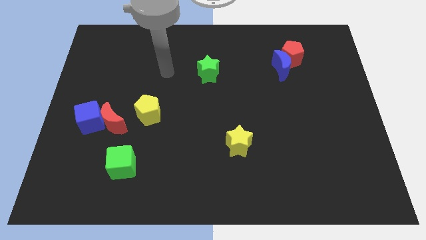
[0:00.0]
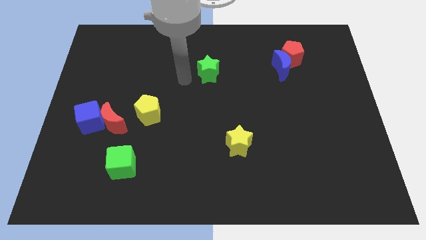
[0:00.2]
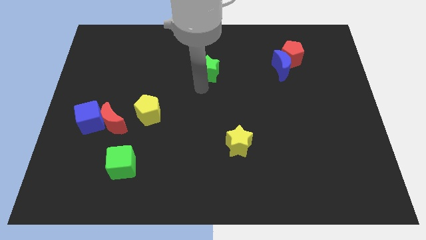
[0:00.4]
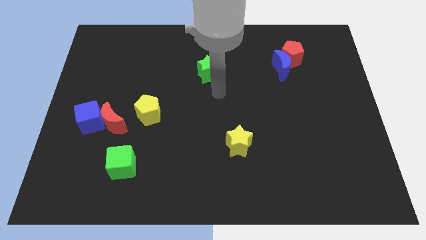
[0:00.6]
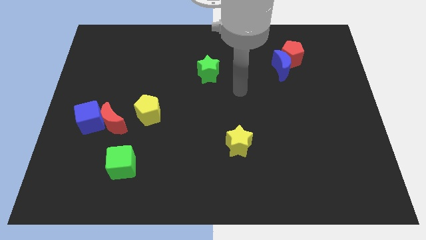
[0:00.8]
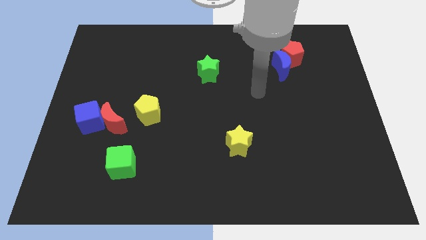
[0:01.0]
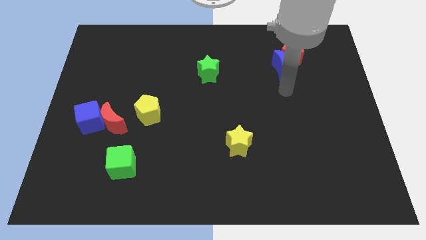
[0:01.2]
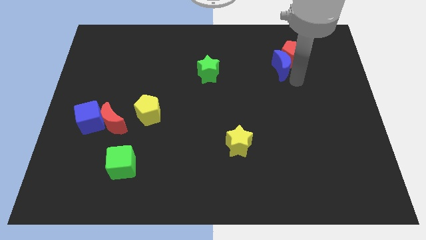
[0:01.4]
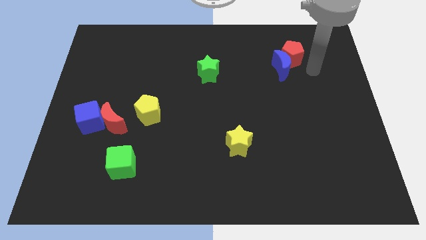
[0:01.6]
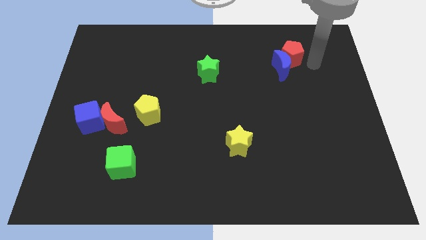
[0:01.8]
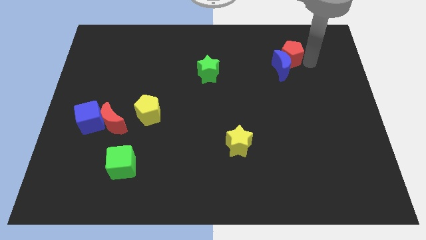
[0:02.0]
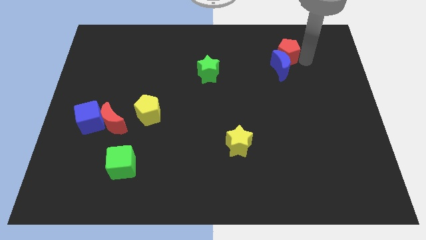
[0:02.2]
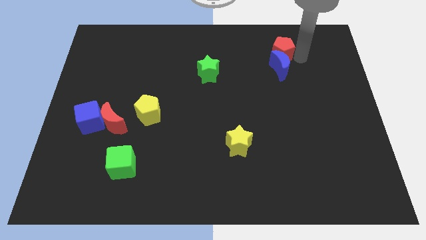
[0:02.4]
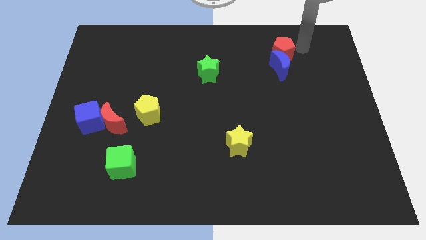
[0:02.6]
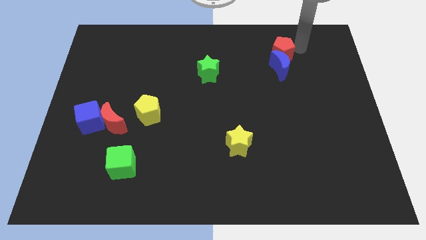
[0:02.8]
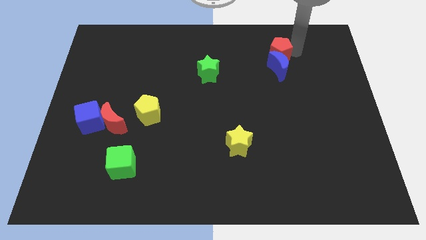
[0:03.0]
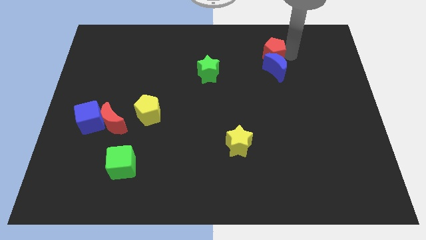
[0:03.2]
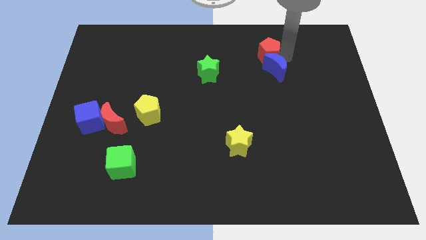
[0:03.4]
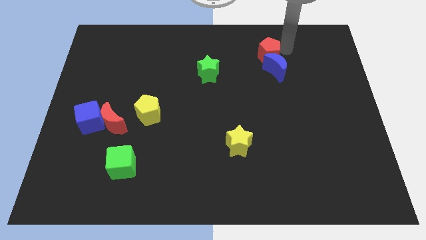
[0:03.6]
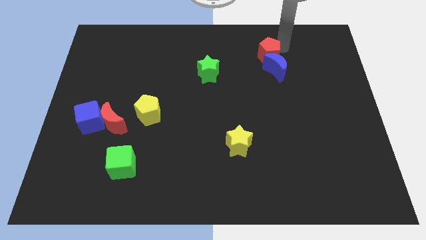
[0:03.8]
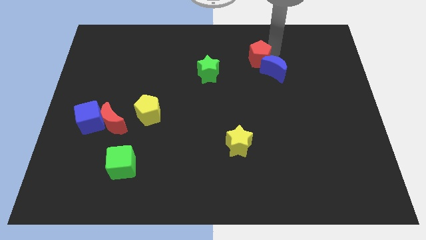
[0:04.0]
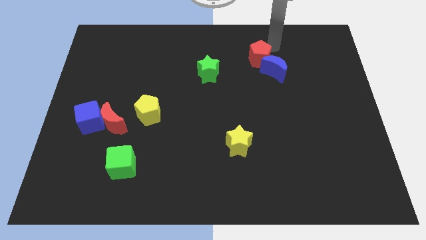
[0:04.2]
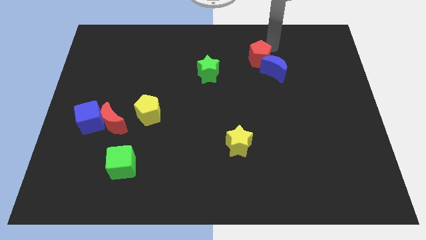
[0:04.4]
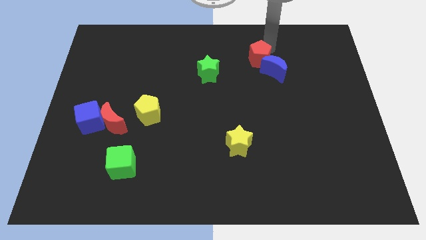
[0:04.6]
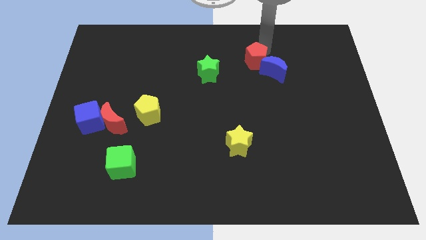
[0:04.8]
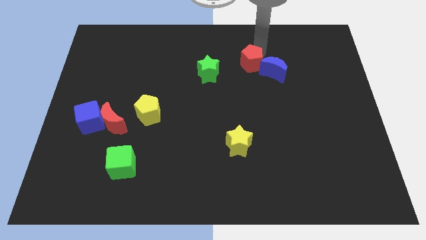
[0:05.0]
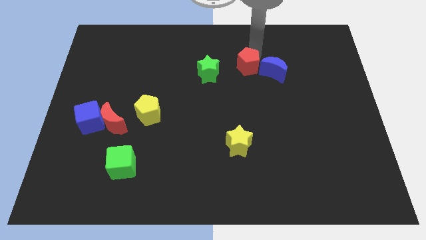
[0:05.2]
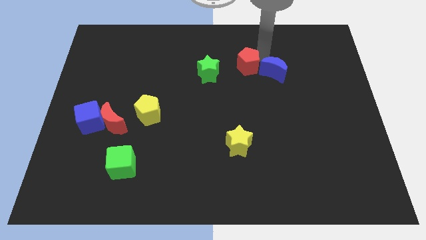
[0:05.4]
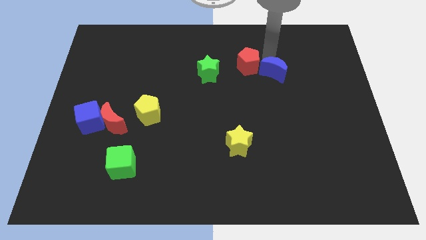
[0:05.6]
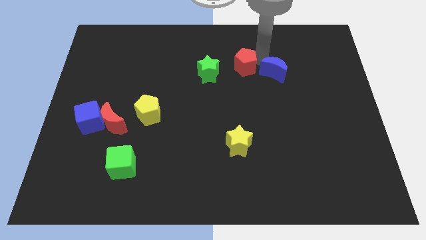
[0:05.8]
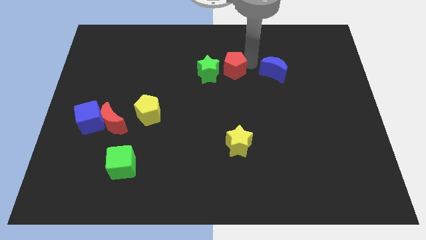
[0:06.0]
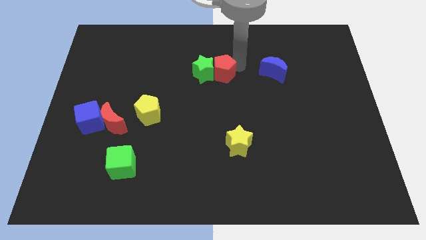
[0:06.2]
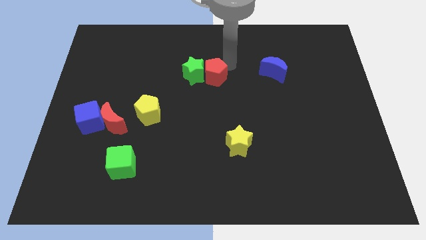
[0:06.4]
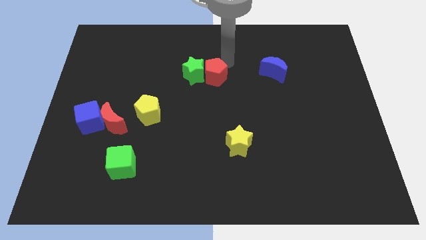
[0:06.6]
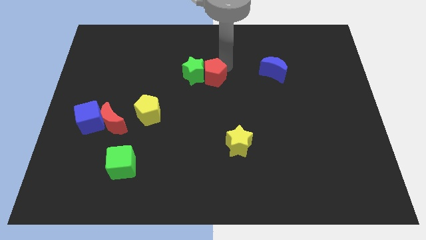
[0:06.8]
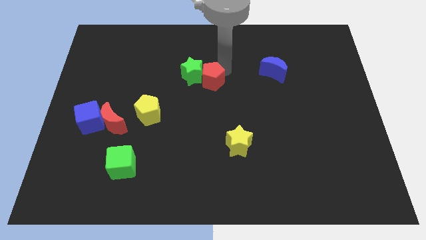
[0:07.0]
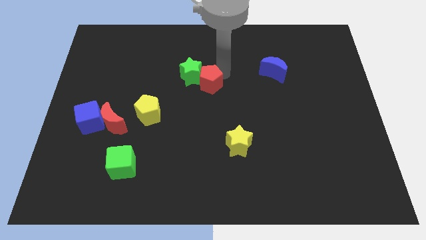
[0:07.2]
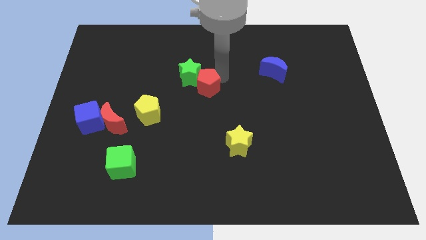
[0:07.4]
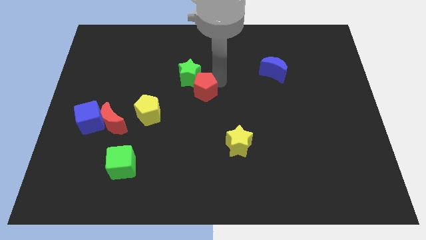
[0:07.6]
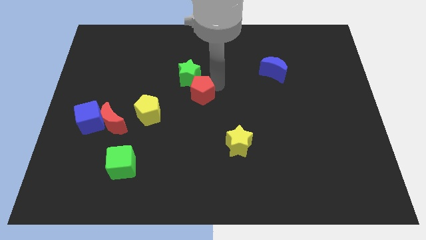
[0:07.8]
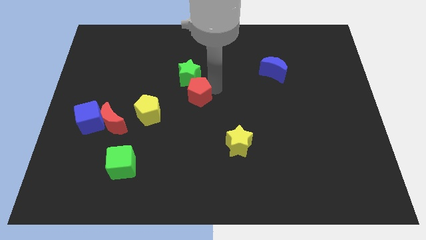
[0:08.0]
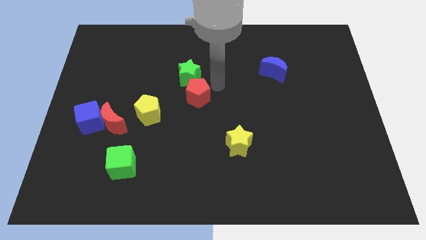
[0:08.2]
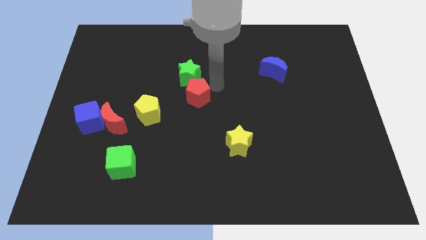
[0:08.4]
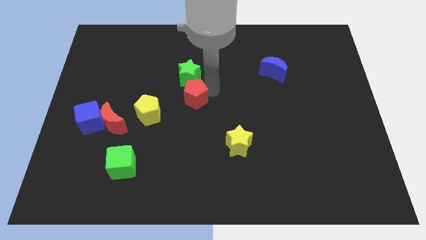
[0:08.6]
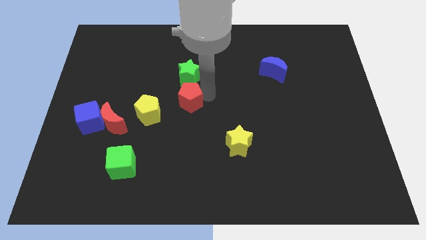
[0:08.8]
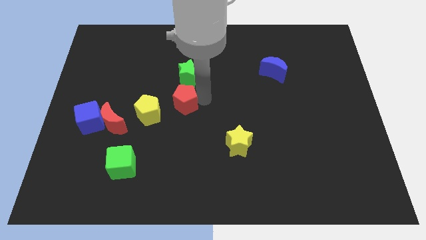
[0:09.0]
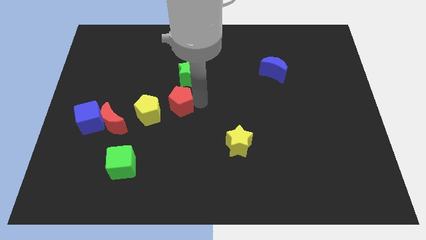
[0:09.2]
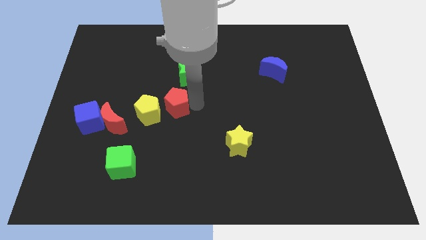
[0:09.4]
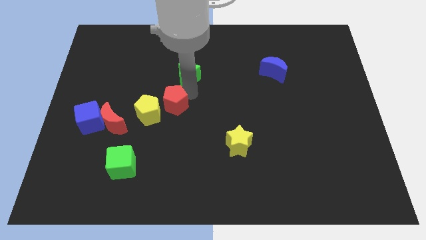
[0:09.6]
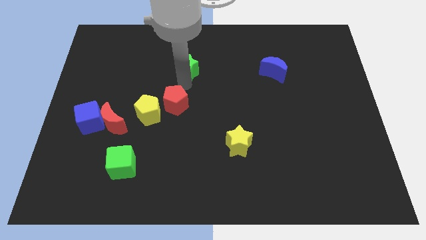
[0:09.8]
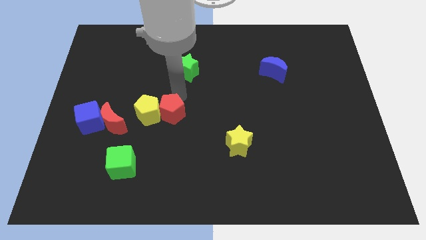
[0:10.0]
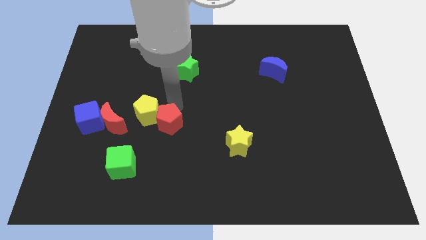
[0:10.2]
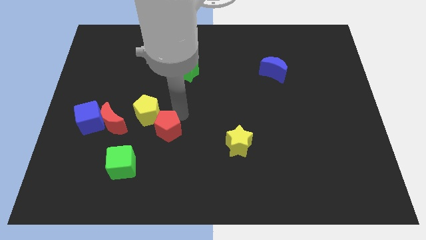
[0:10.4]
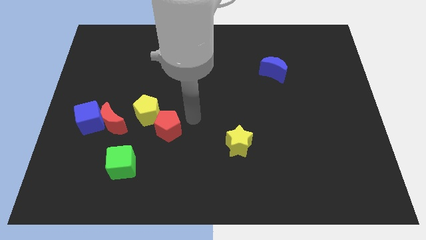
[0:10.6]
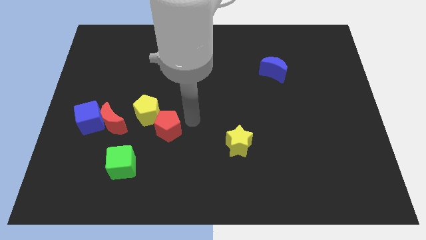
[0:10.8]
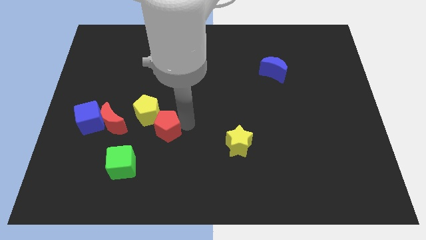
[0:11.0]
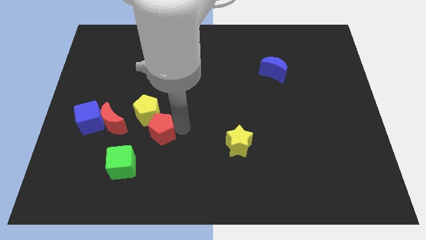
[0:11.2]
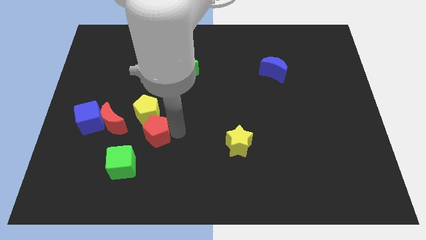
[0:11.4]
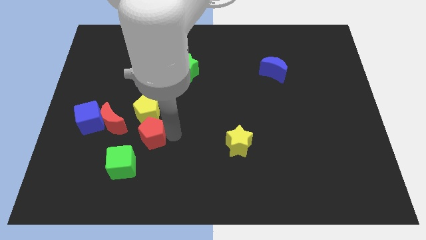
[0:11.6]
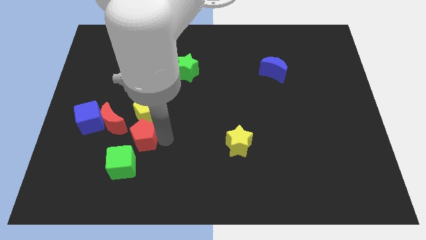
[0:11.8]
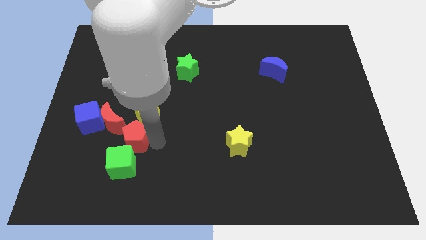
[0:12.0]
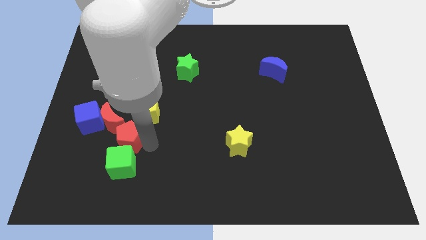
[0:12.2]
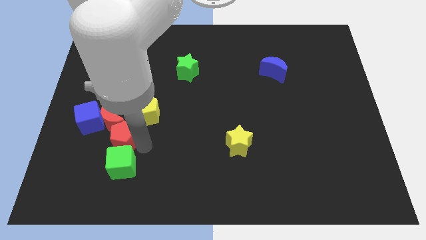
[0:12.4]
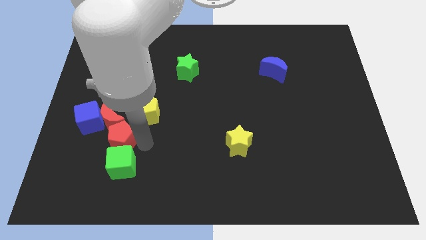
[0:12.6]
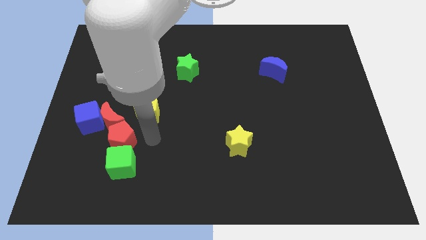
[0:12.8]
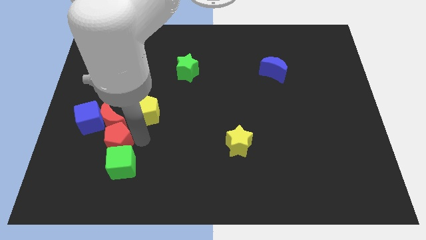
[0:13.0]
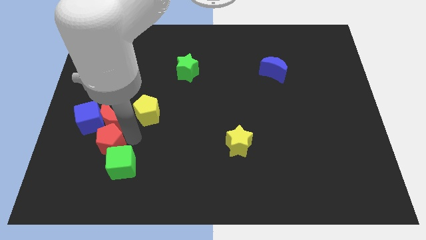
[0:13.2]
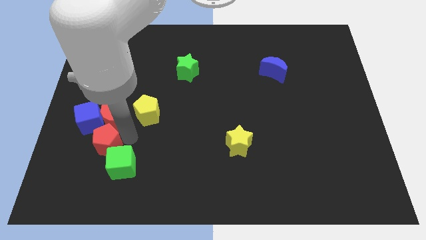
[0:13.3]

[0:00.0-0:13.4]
push the red pentagon to the bottom side of the blue cube

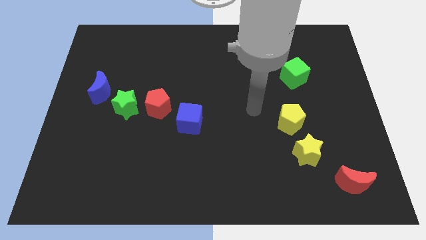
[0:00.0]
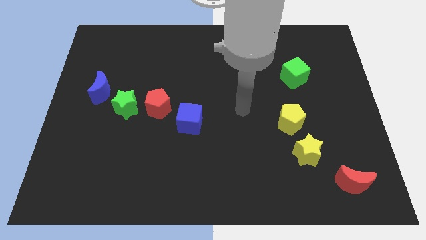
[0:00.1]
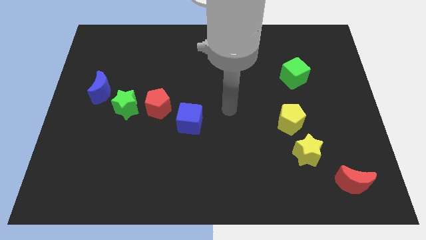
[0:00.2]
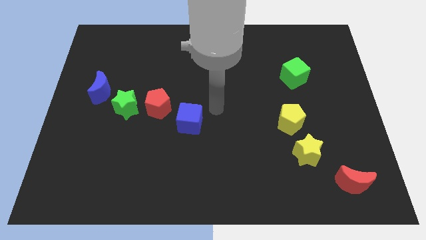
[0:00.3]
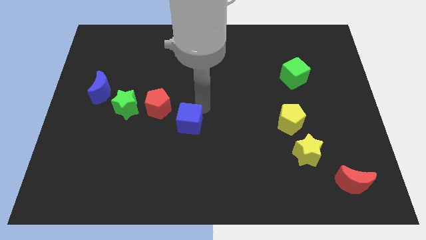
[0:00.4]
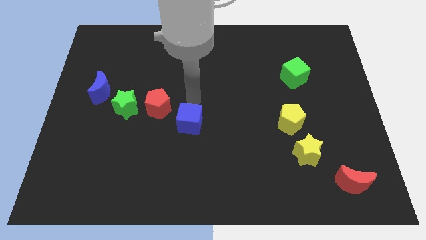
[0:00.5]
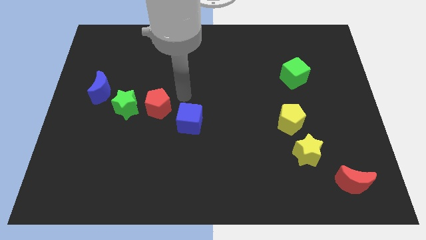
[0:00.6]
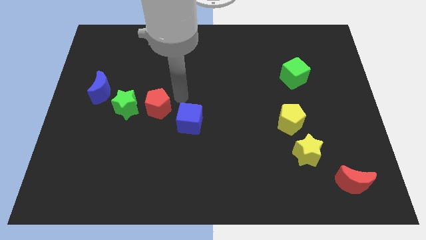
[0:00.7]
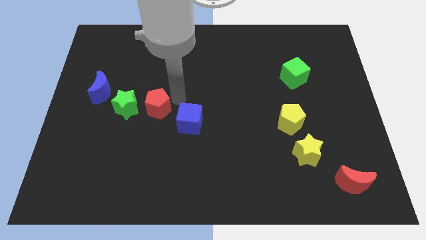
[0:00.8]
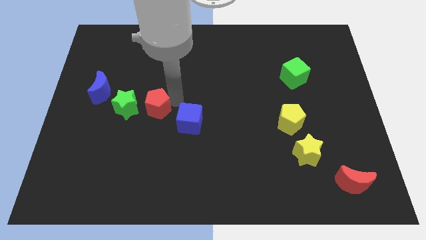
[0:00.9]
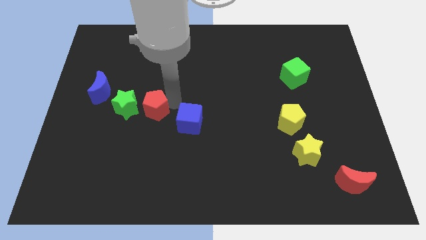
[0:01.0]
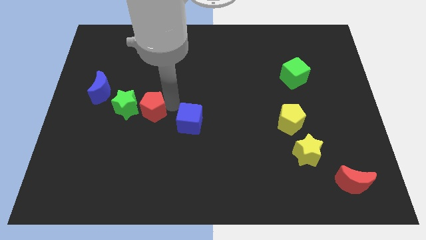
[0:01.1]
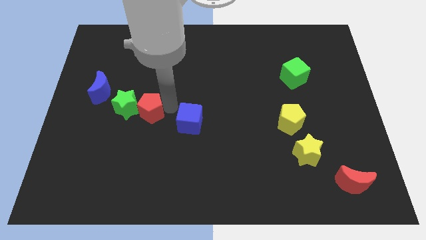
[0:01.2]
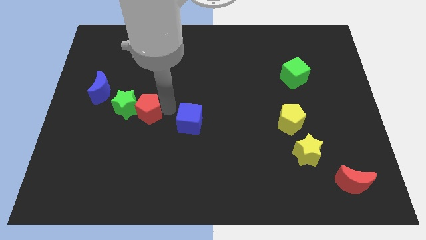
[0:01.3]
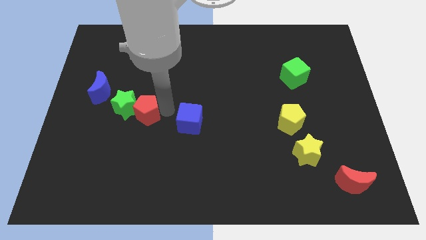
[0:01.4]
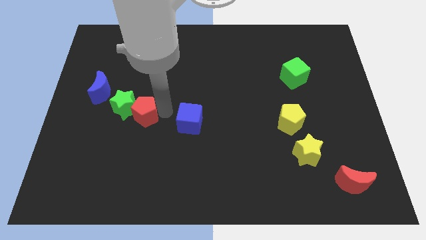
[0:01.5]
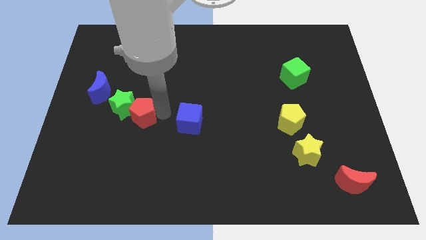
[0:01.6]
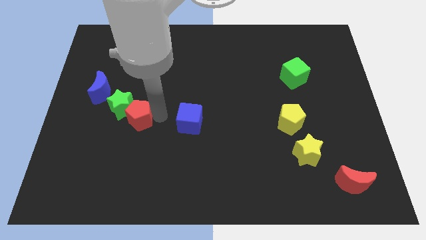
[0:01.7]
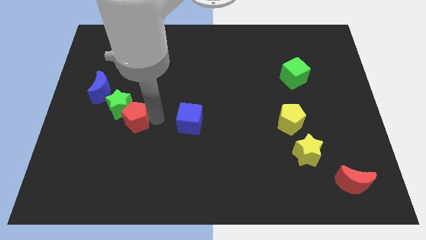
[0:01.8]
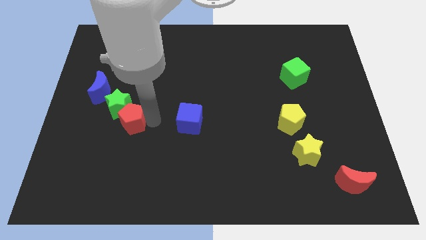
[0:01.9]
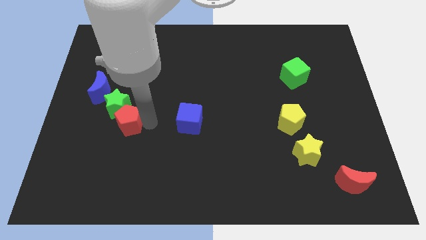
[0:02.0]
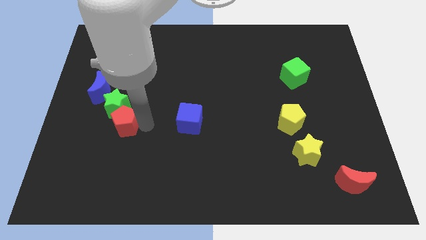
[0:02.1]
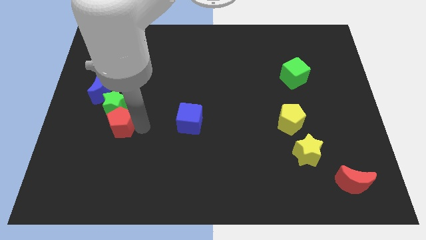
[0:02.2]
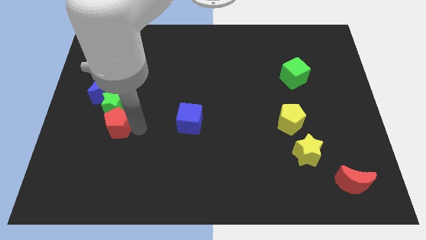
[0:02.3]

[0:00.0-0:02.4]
slide the red pentagon diagonally down and to the left of the green star
